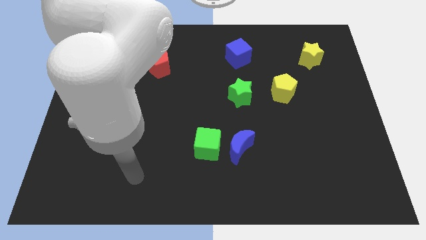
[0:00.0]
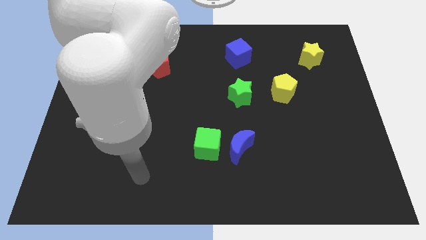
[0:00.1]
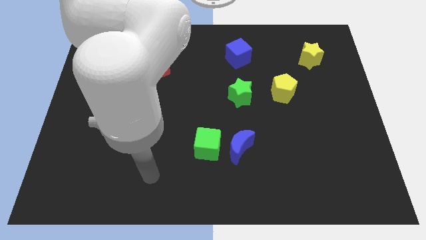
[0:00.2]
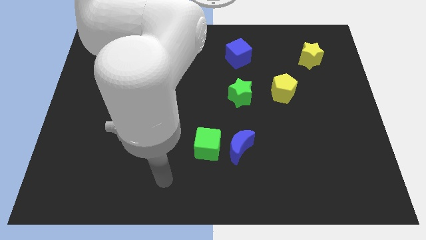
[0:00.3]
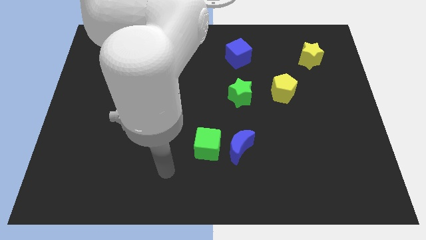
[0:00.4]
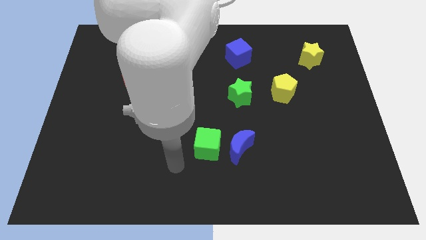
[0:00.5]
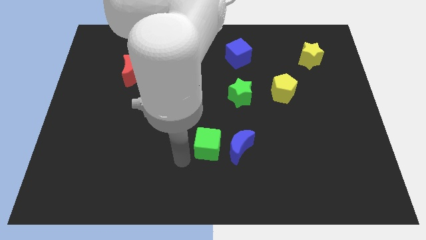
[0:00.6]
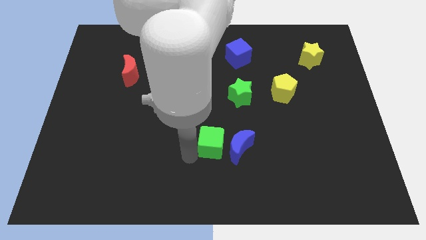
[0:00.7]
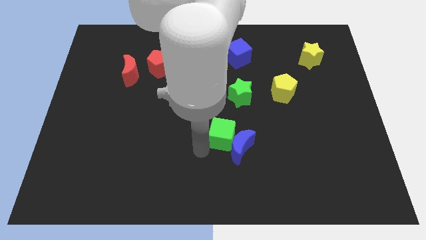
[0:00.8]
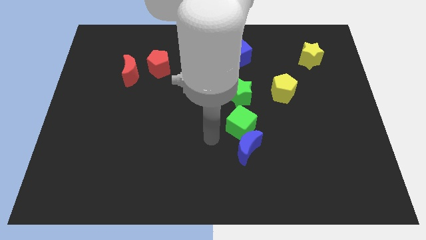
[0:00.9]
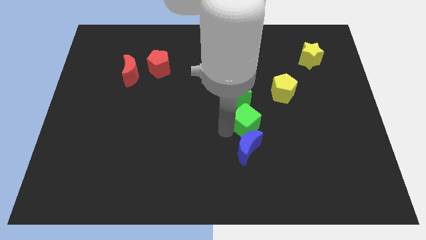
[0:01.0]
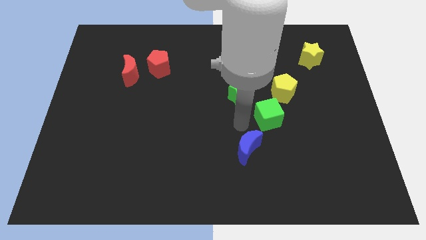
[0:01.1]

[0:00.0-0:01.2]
separate the blue moon from the green cube

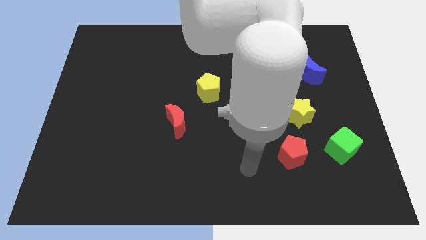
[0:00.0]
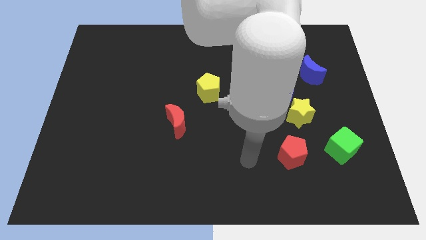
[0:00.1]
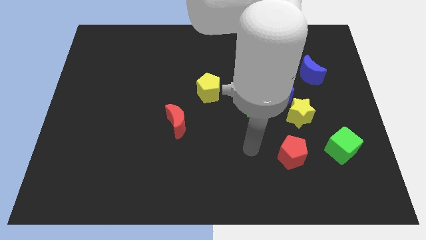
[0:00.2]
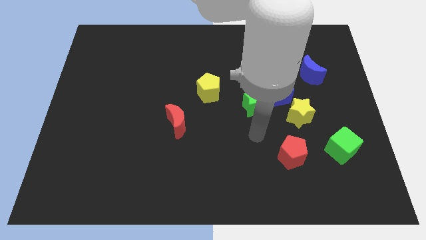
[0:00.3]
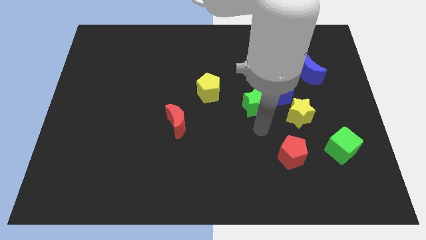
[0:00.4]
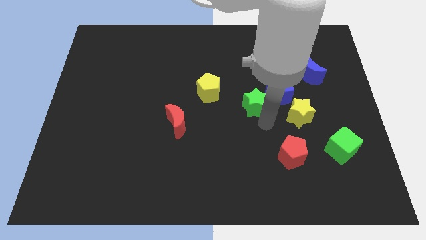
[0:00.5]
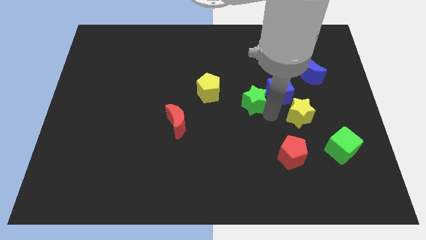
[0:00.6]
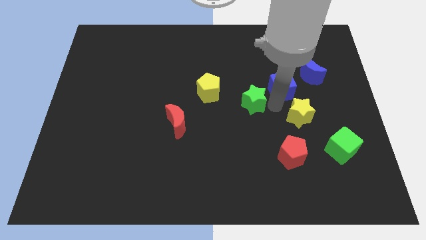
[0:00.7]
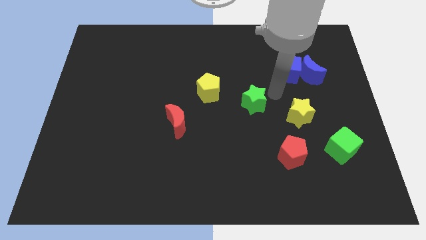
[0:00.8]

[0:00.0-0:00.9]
move the green star away from the blue cube

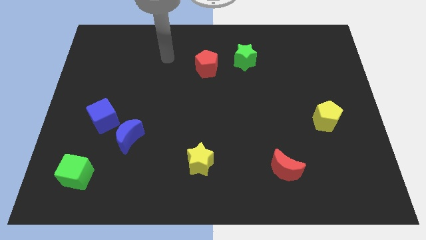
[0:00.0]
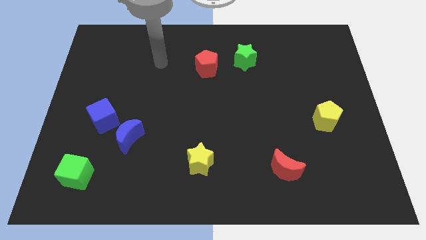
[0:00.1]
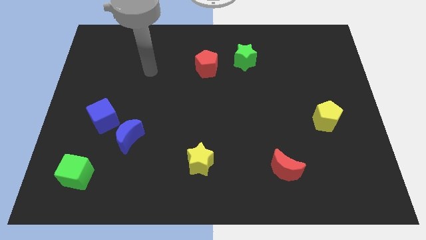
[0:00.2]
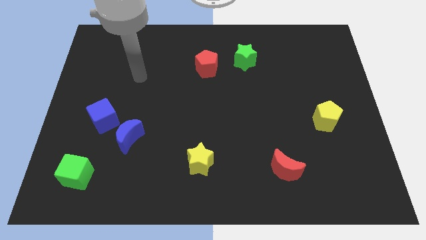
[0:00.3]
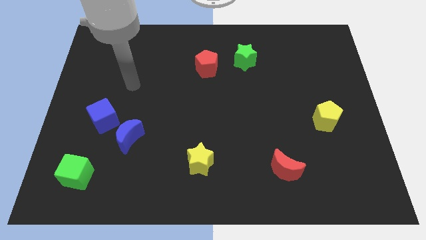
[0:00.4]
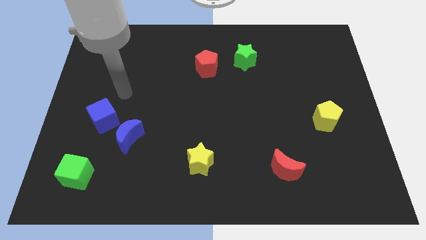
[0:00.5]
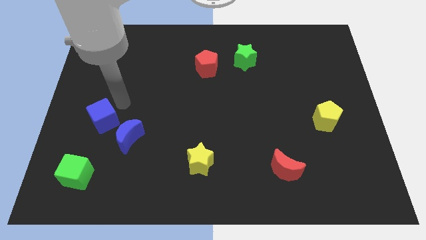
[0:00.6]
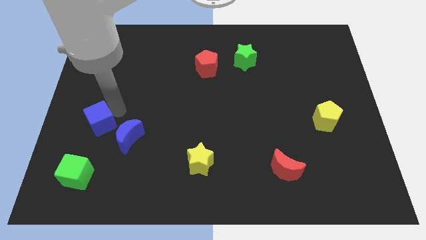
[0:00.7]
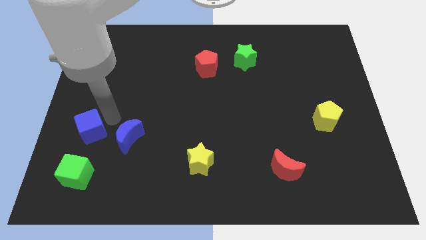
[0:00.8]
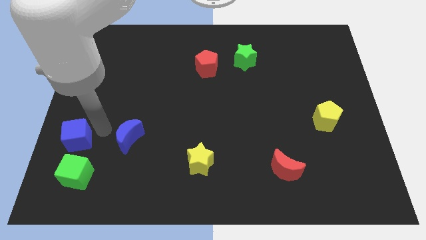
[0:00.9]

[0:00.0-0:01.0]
separate the blue moon from the blue cube

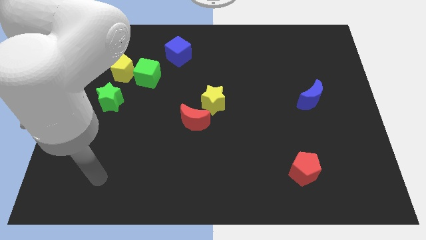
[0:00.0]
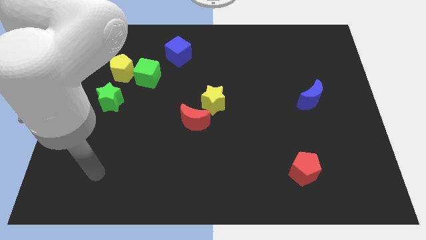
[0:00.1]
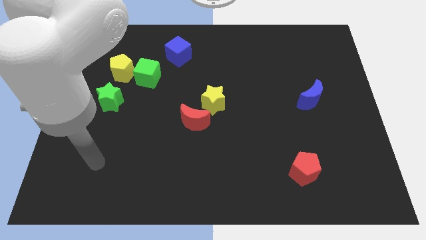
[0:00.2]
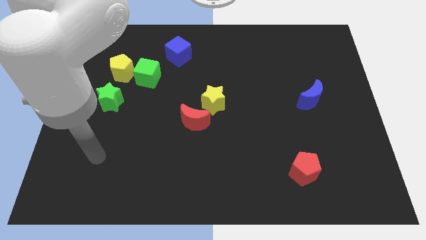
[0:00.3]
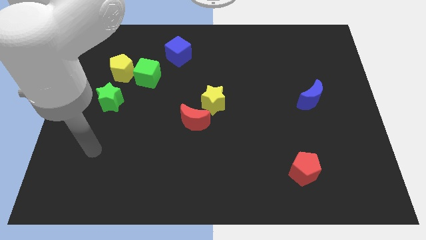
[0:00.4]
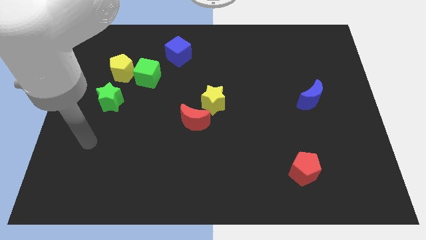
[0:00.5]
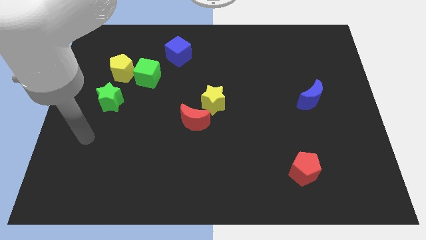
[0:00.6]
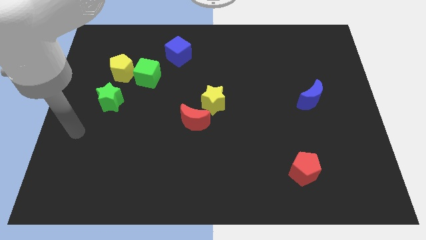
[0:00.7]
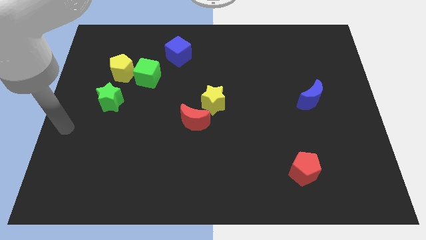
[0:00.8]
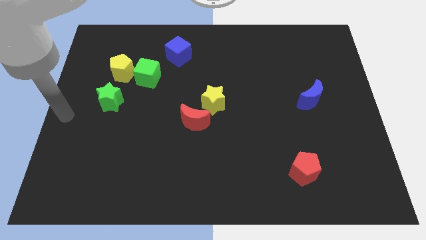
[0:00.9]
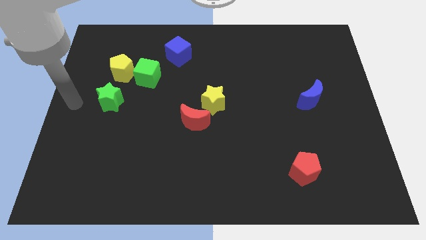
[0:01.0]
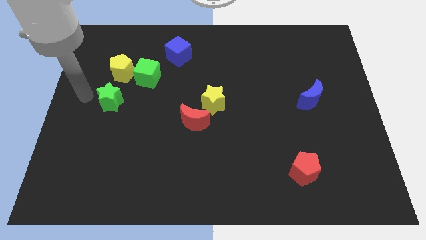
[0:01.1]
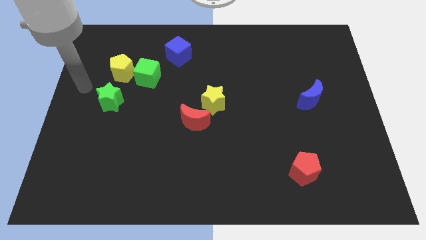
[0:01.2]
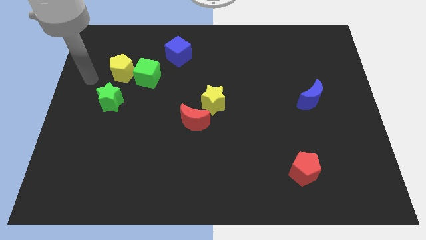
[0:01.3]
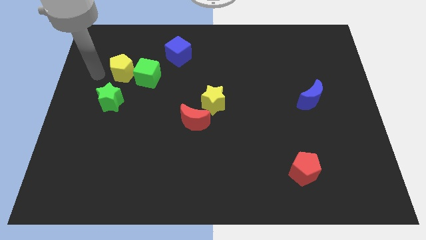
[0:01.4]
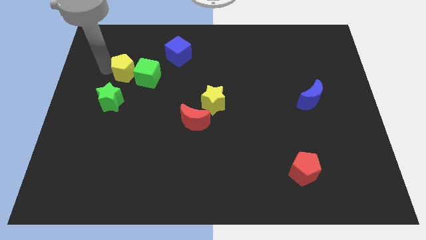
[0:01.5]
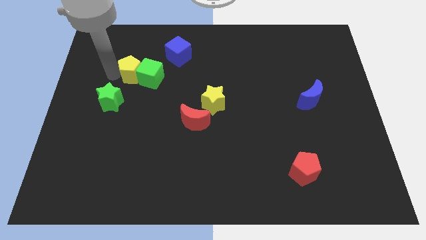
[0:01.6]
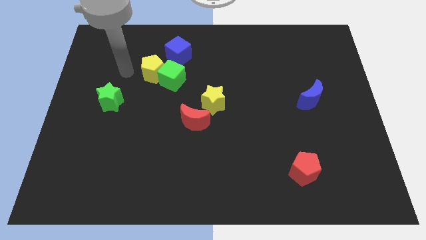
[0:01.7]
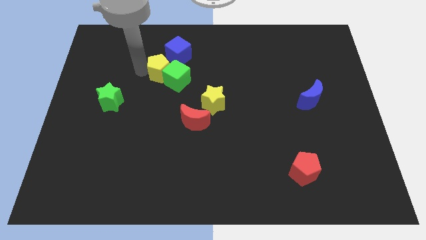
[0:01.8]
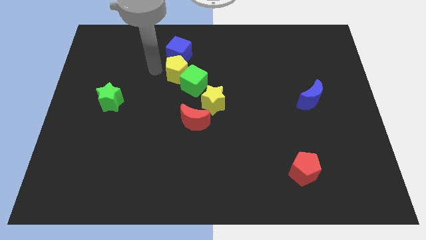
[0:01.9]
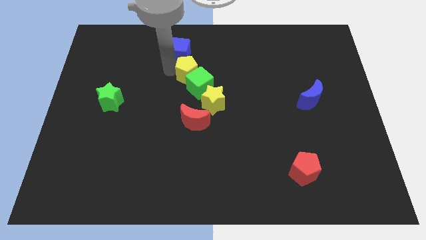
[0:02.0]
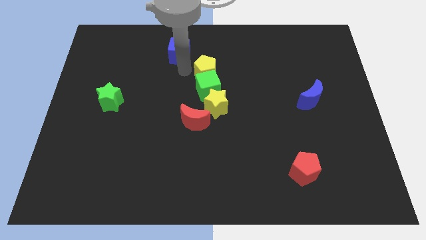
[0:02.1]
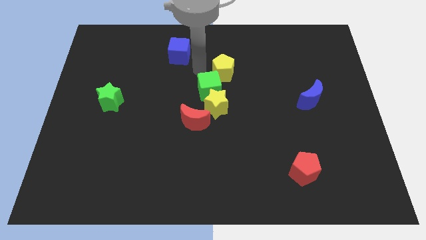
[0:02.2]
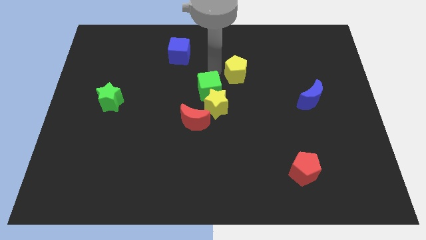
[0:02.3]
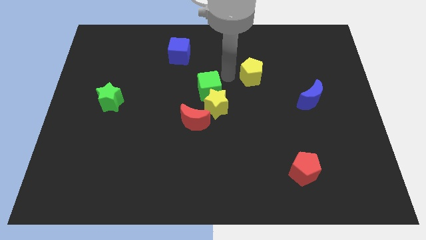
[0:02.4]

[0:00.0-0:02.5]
pull the green cube apart from the yellow pentagon

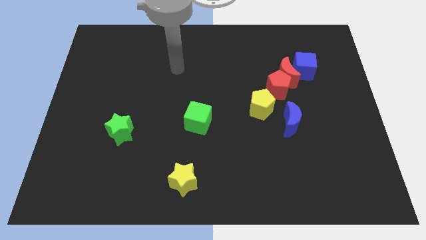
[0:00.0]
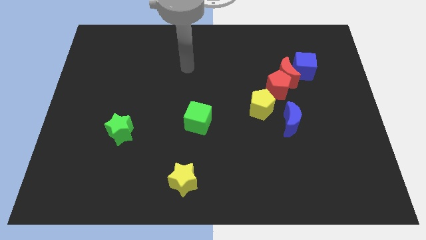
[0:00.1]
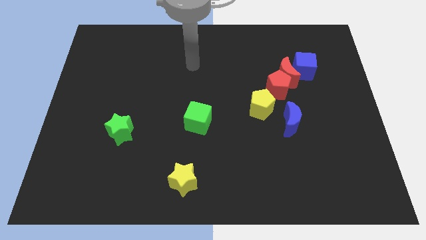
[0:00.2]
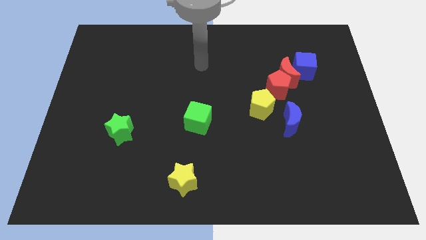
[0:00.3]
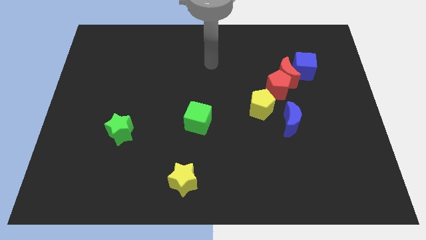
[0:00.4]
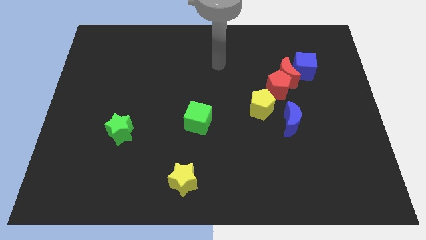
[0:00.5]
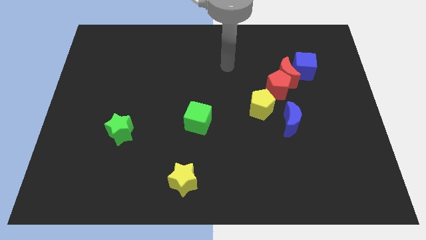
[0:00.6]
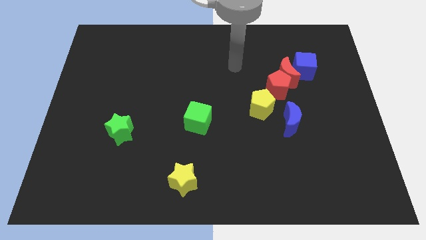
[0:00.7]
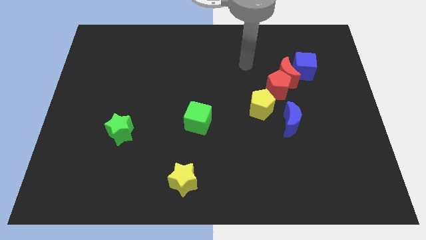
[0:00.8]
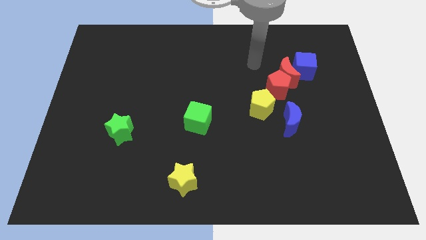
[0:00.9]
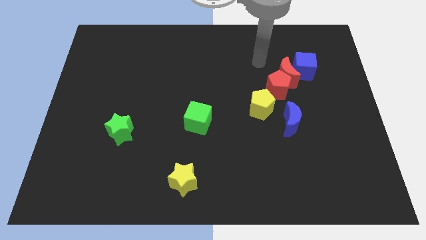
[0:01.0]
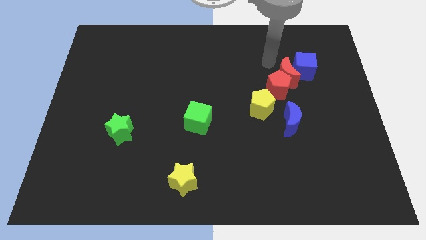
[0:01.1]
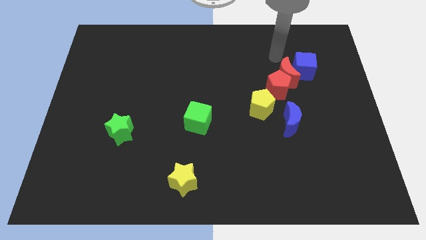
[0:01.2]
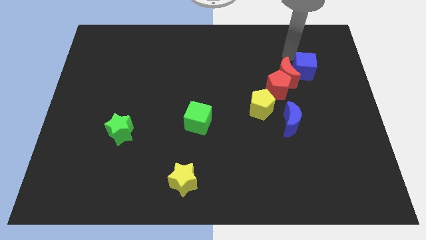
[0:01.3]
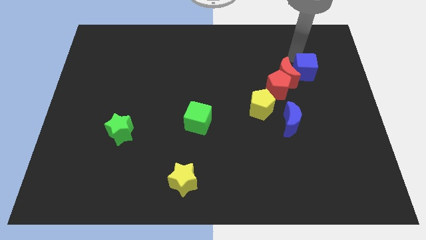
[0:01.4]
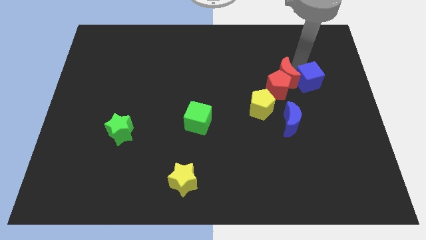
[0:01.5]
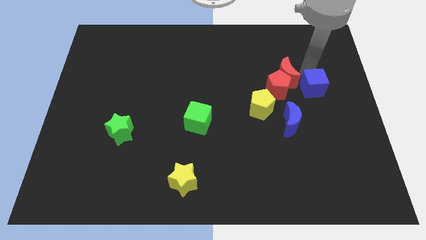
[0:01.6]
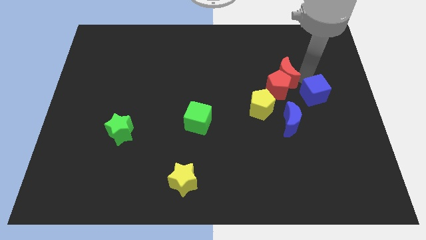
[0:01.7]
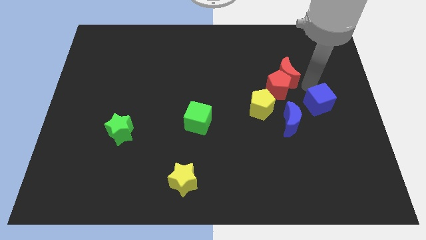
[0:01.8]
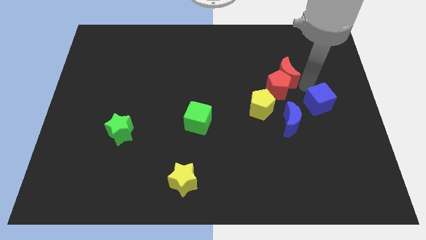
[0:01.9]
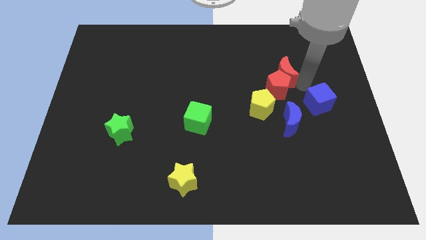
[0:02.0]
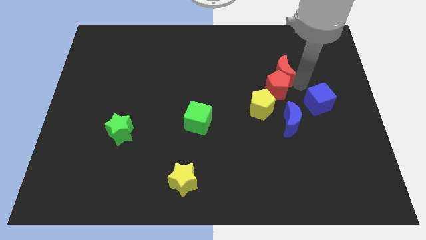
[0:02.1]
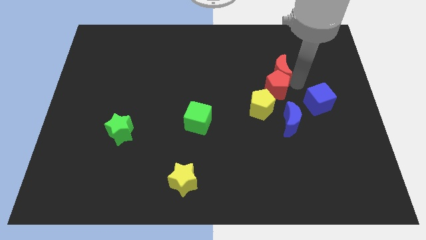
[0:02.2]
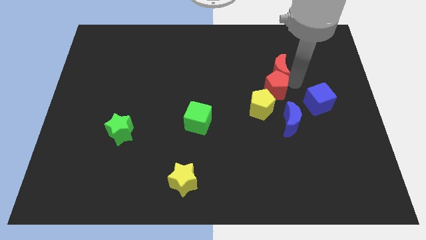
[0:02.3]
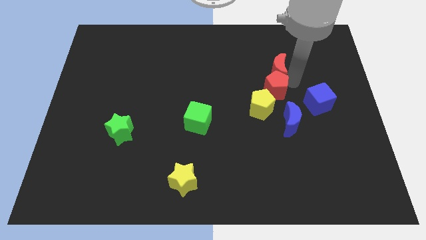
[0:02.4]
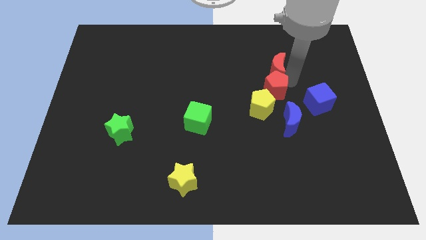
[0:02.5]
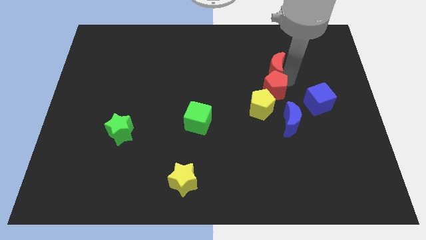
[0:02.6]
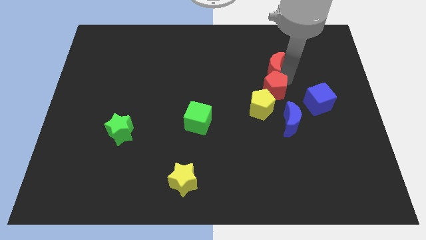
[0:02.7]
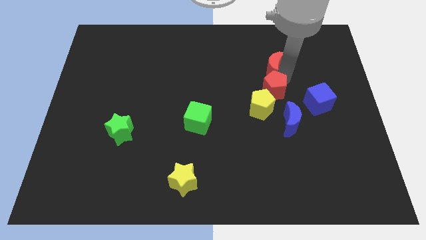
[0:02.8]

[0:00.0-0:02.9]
pull the red moon apart from the red pentagon and blue cube

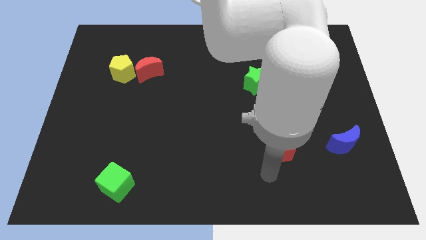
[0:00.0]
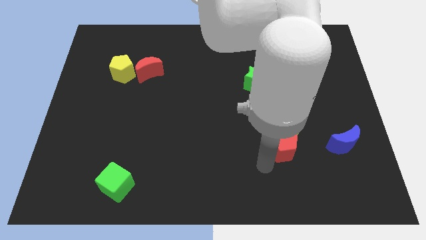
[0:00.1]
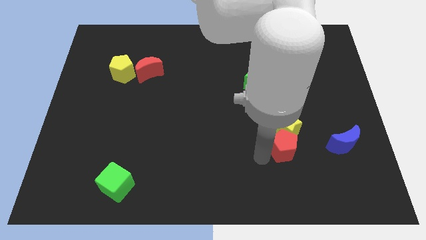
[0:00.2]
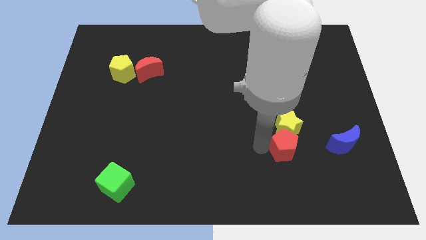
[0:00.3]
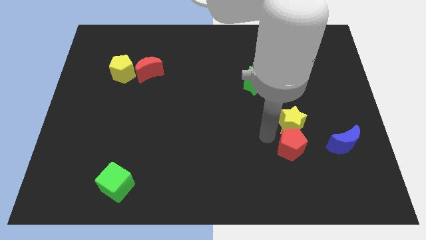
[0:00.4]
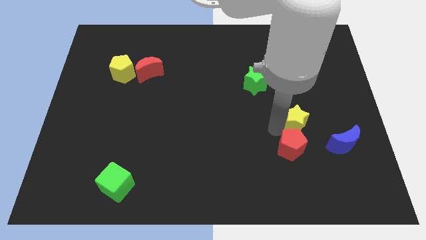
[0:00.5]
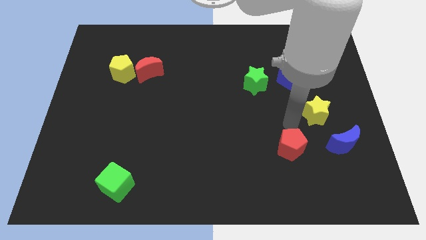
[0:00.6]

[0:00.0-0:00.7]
pull the red pentagon apart from the yellow star
